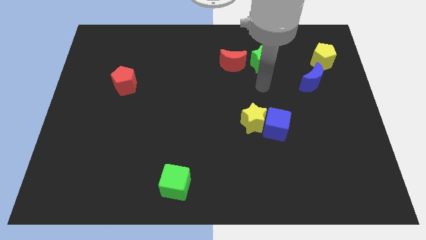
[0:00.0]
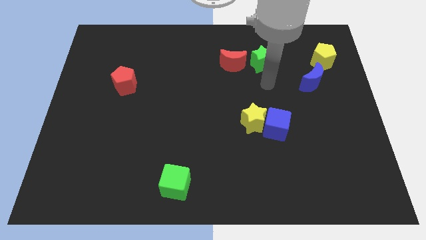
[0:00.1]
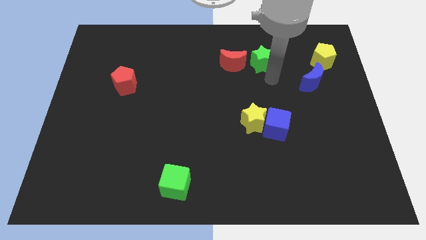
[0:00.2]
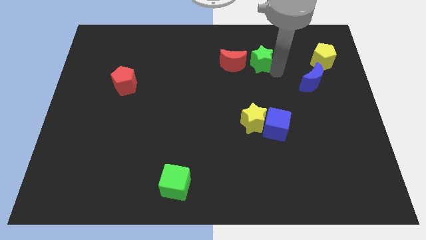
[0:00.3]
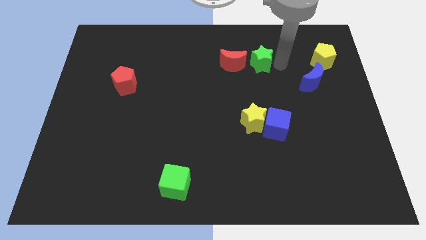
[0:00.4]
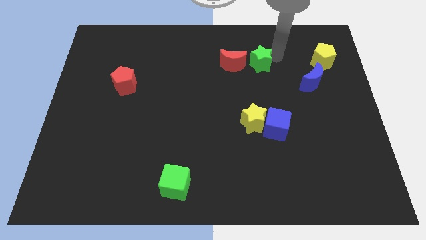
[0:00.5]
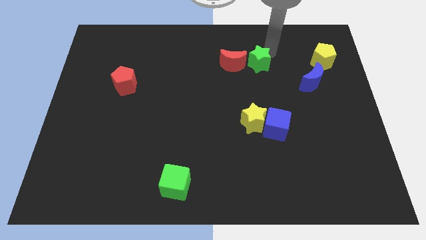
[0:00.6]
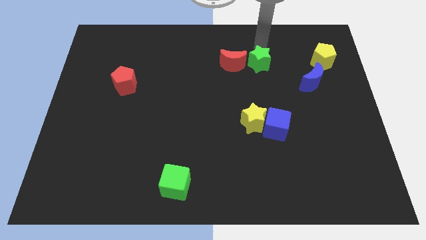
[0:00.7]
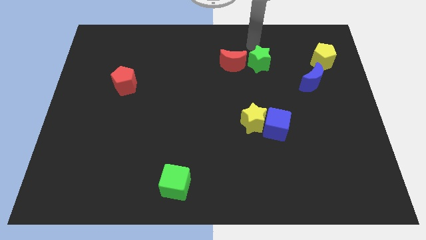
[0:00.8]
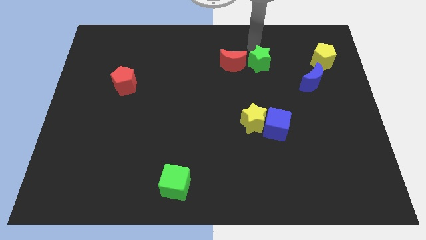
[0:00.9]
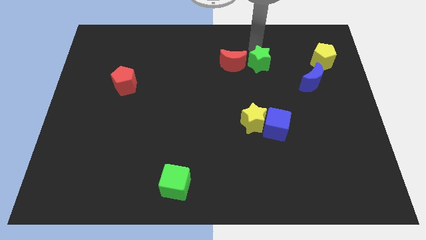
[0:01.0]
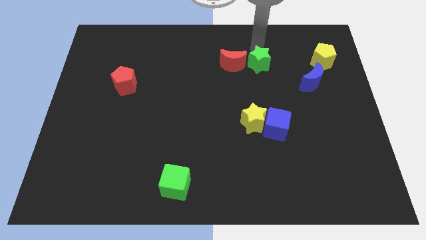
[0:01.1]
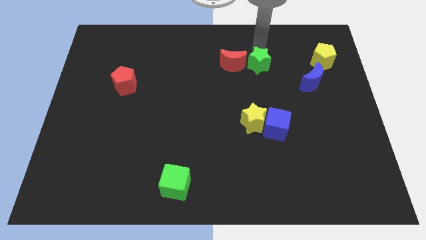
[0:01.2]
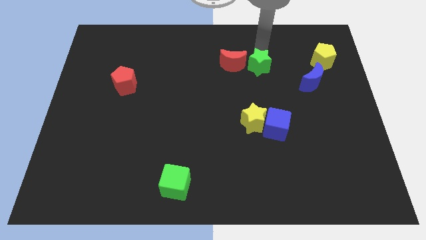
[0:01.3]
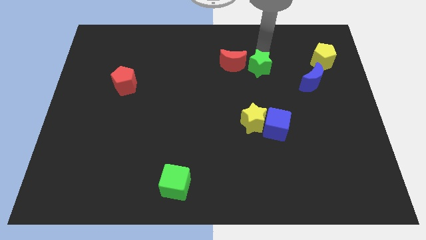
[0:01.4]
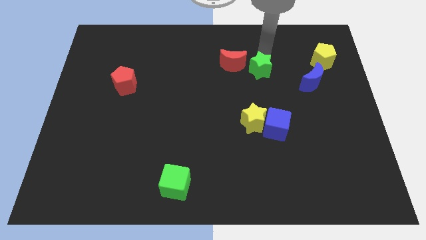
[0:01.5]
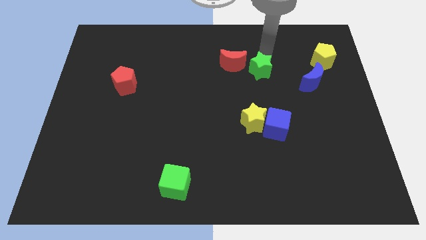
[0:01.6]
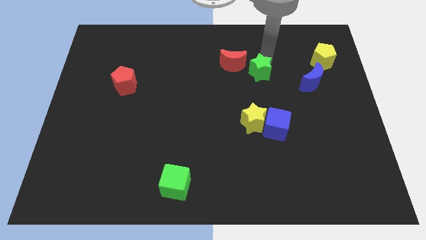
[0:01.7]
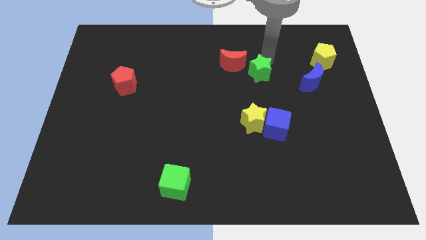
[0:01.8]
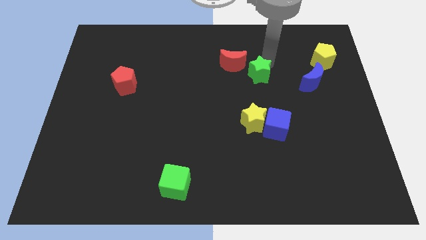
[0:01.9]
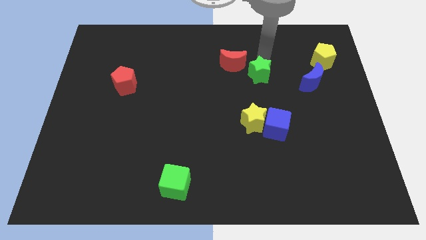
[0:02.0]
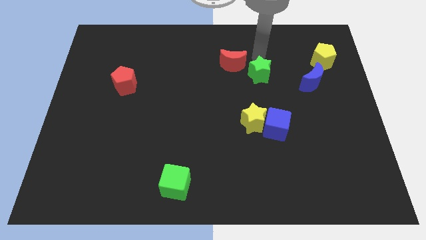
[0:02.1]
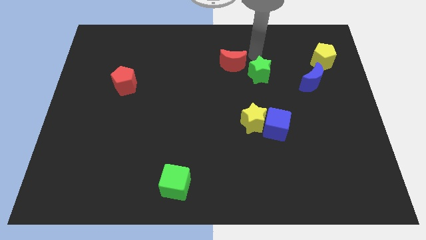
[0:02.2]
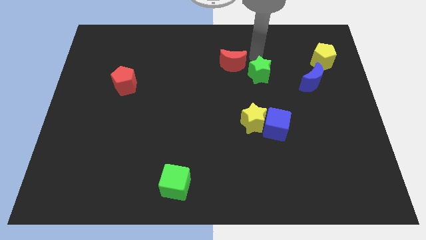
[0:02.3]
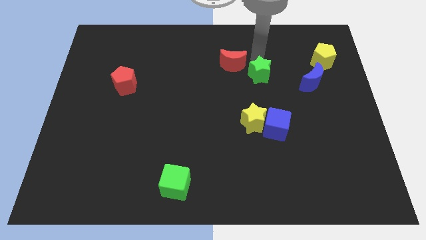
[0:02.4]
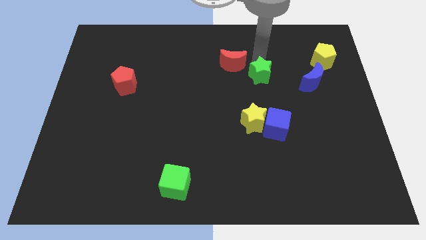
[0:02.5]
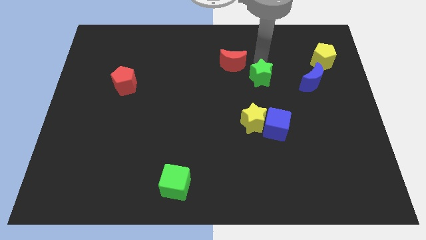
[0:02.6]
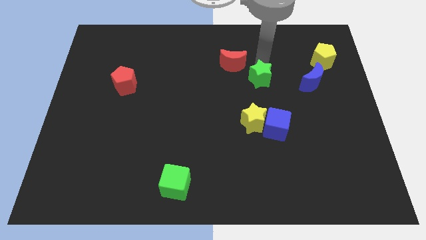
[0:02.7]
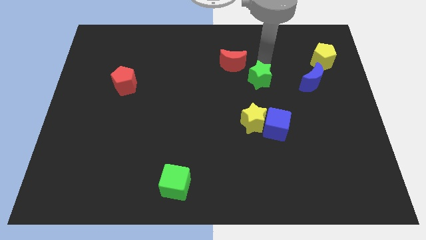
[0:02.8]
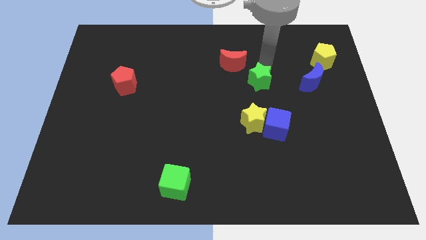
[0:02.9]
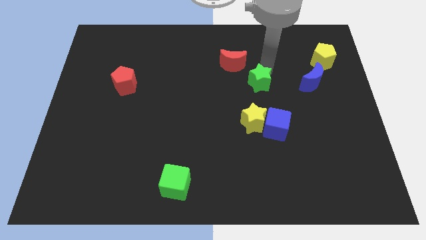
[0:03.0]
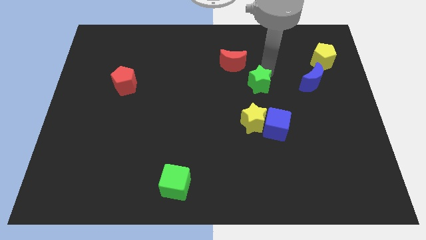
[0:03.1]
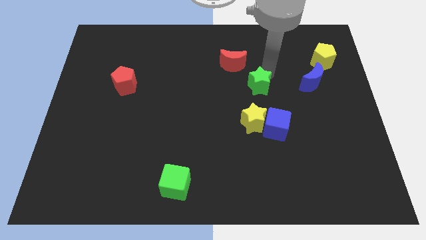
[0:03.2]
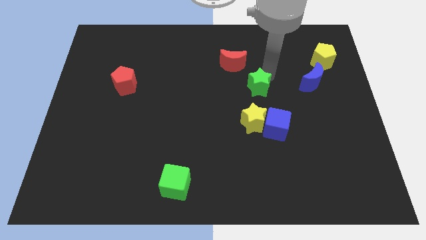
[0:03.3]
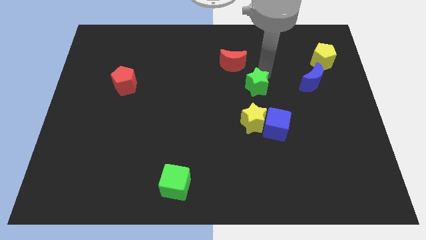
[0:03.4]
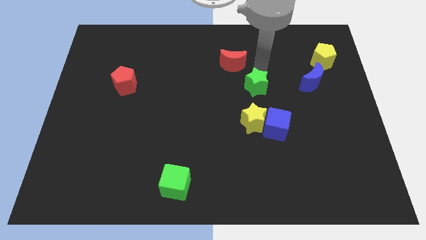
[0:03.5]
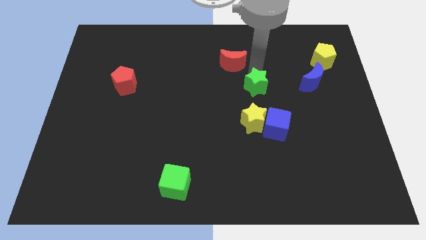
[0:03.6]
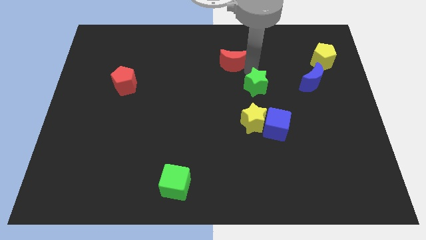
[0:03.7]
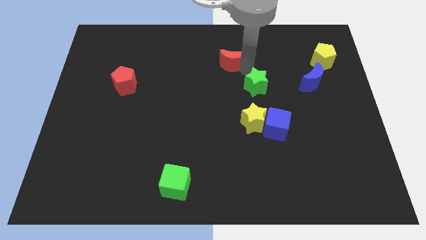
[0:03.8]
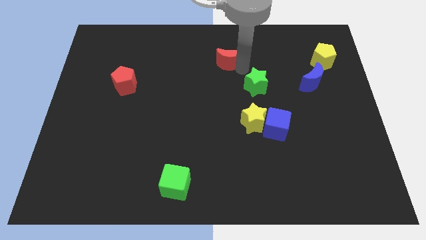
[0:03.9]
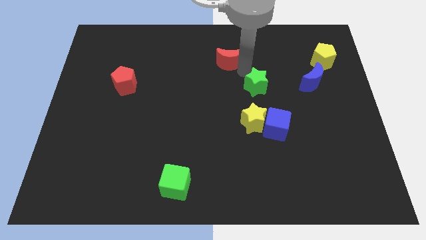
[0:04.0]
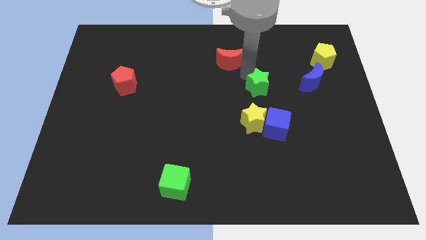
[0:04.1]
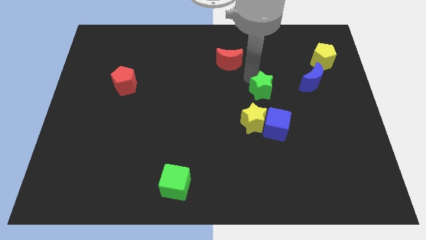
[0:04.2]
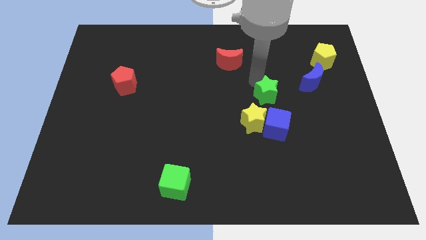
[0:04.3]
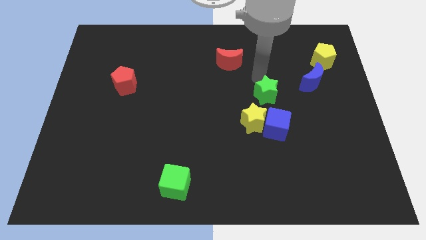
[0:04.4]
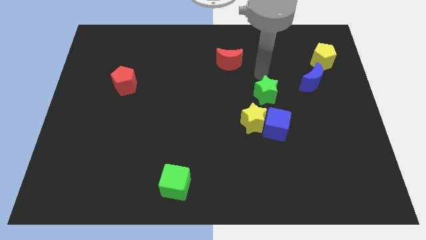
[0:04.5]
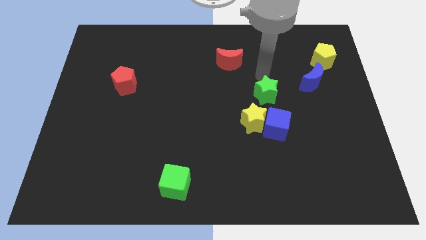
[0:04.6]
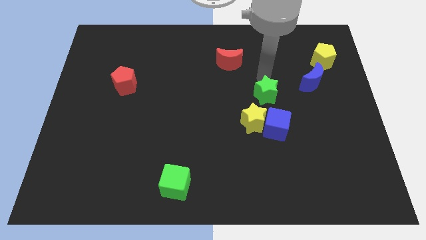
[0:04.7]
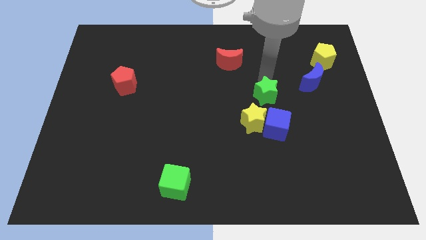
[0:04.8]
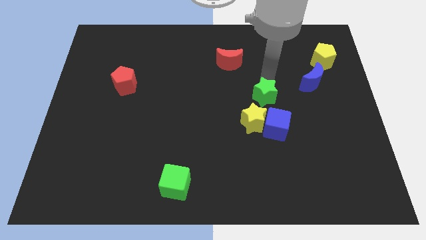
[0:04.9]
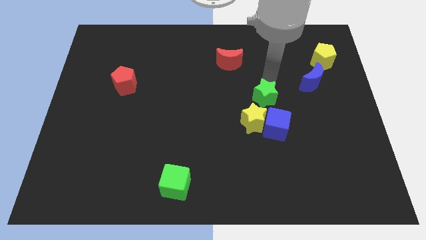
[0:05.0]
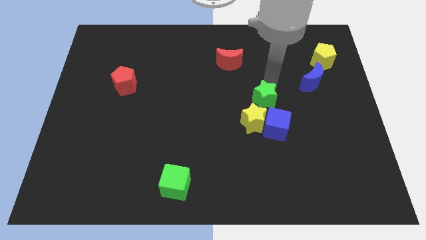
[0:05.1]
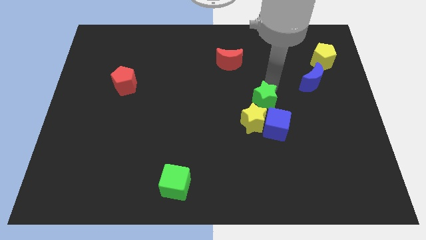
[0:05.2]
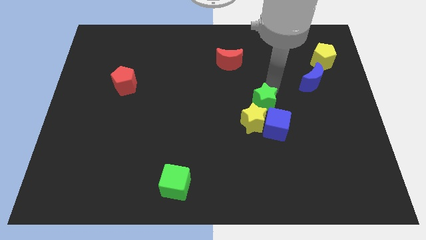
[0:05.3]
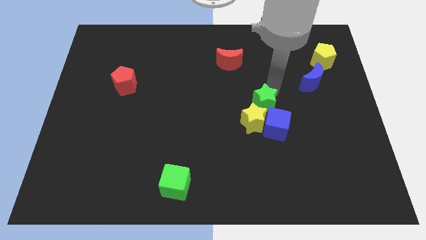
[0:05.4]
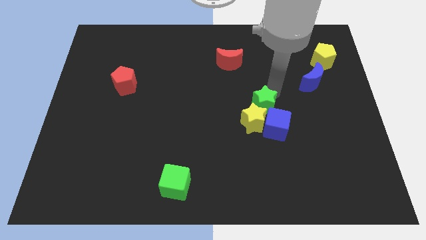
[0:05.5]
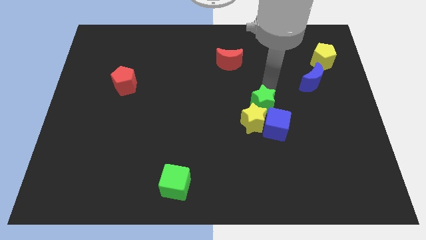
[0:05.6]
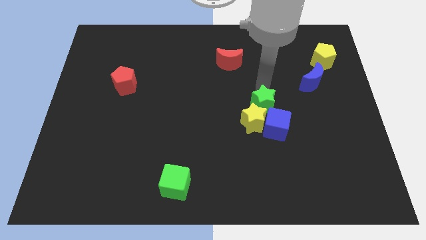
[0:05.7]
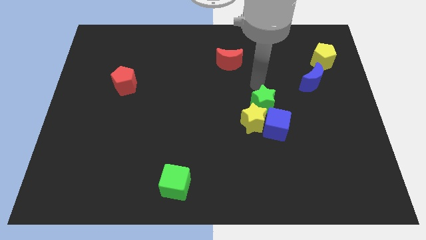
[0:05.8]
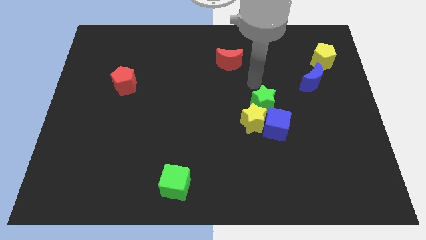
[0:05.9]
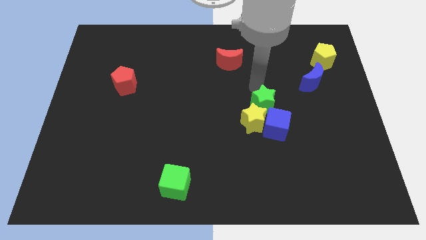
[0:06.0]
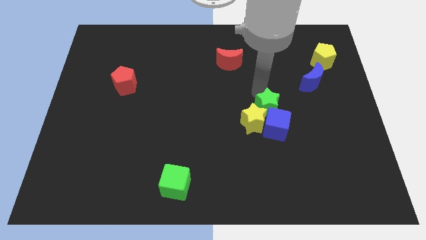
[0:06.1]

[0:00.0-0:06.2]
move the green star to the blue cube

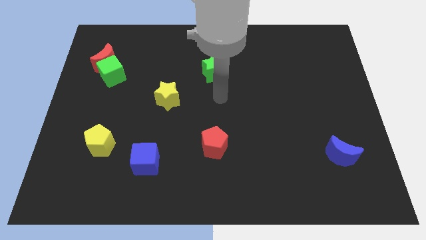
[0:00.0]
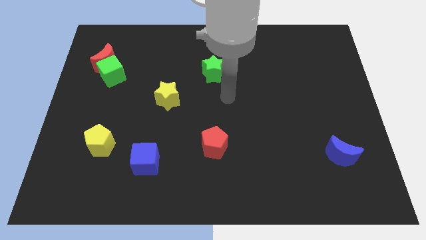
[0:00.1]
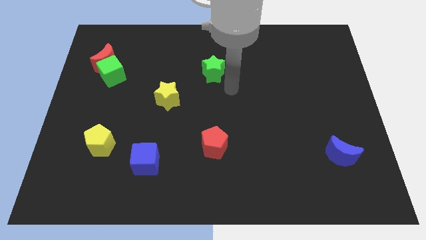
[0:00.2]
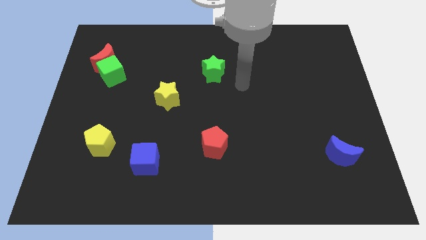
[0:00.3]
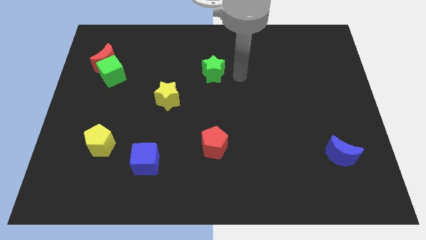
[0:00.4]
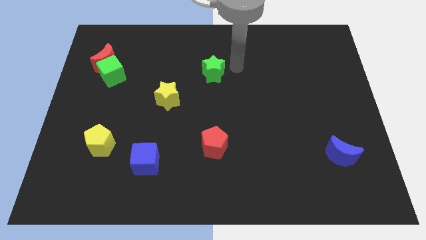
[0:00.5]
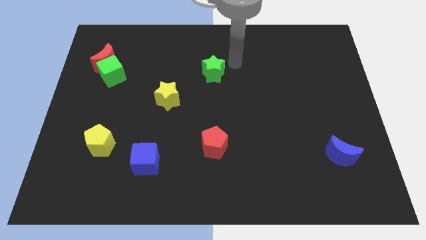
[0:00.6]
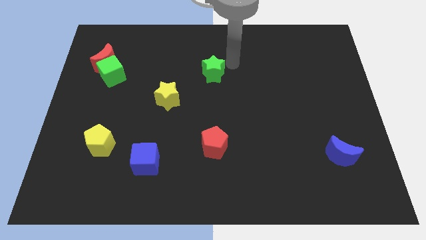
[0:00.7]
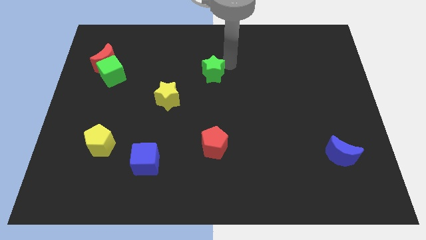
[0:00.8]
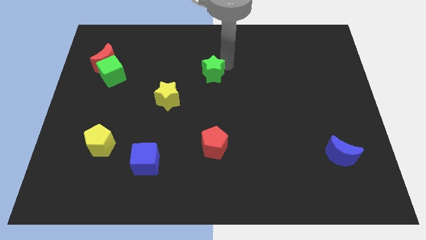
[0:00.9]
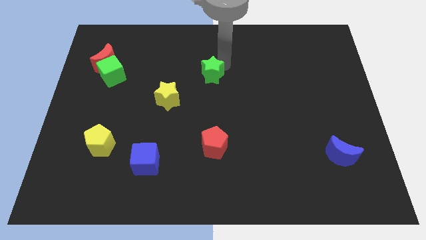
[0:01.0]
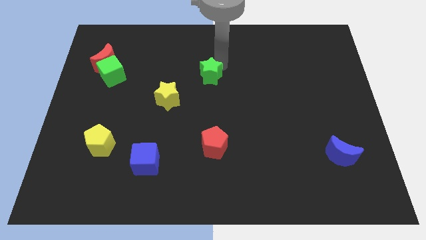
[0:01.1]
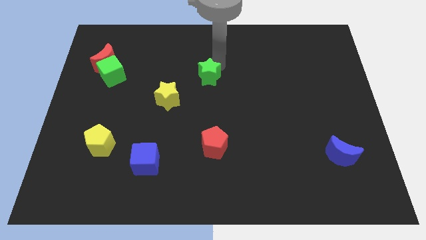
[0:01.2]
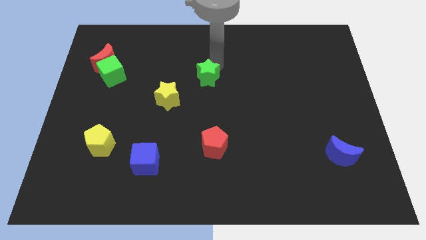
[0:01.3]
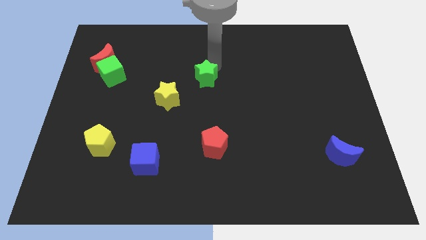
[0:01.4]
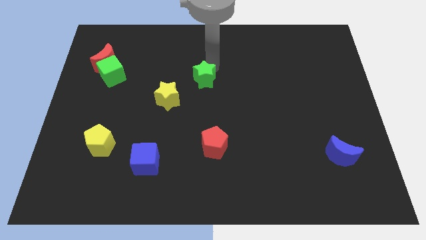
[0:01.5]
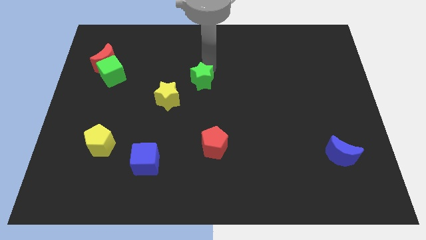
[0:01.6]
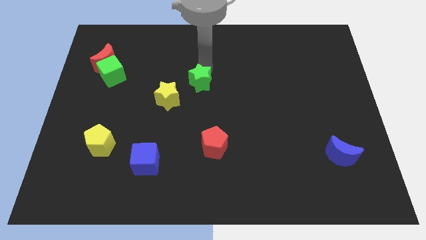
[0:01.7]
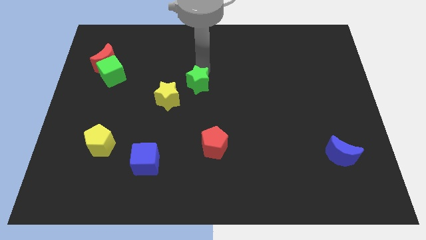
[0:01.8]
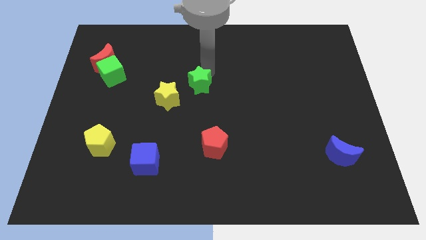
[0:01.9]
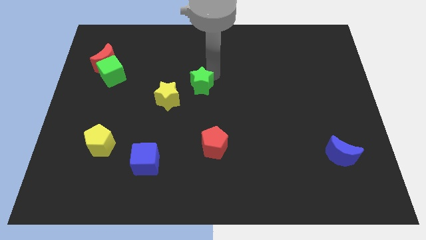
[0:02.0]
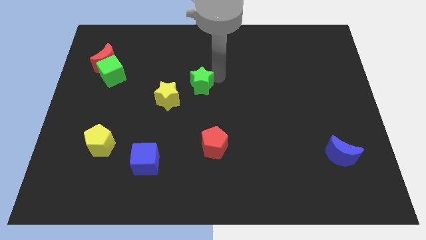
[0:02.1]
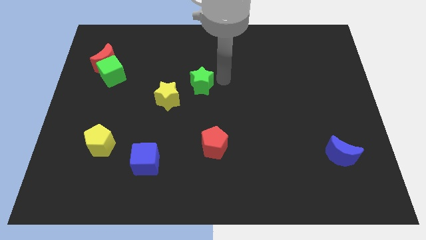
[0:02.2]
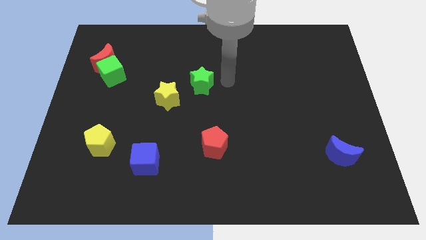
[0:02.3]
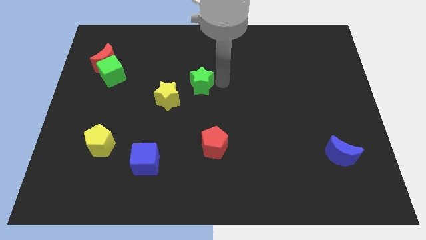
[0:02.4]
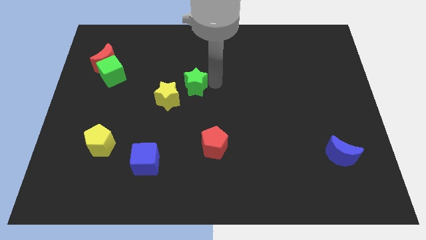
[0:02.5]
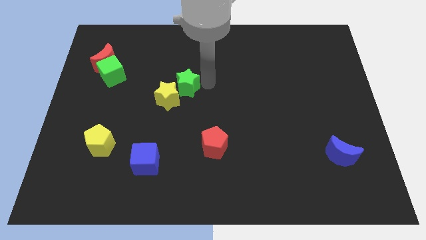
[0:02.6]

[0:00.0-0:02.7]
put the green star next to the yellow star
